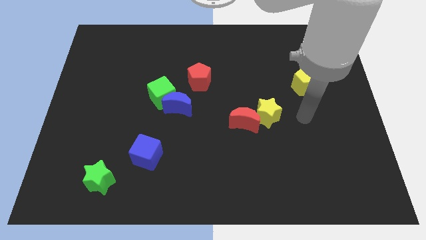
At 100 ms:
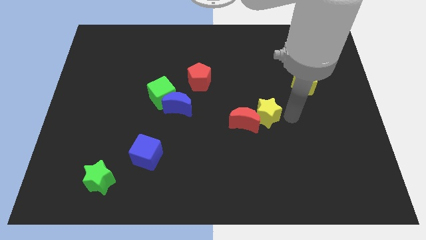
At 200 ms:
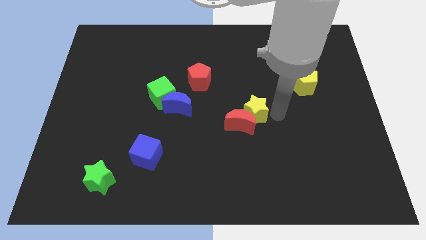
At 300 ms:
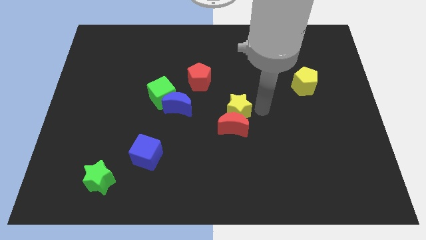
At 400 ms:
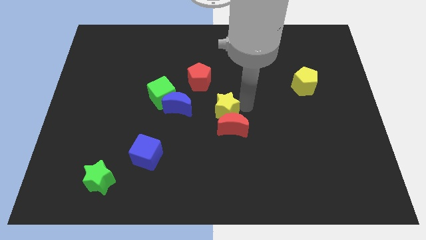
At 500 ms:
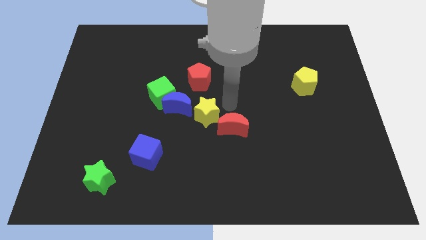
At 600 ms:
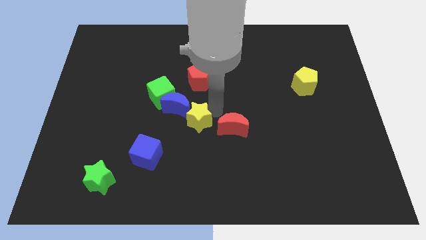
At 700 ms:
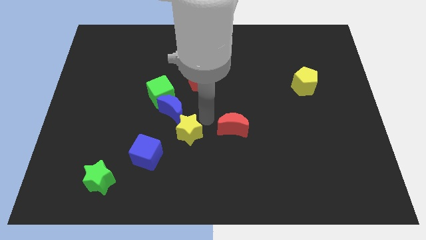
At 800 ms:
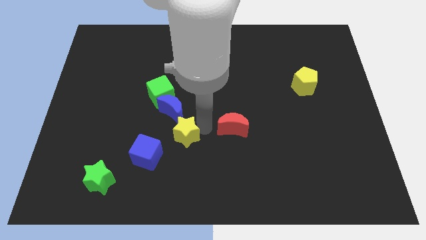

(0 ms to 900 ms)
separate the red moon from the yellow star

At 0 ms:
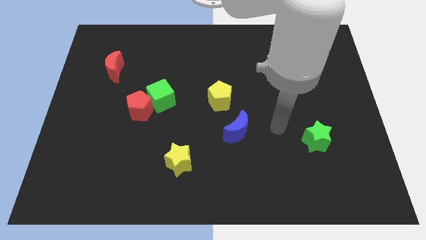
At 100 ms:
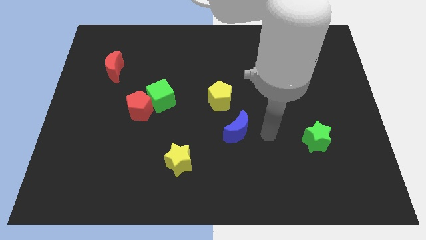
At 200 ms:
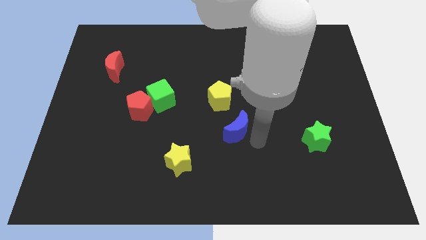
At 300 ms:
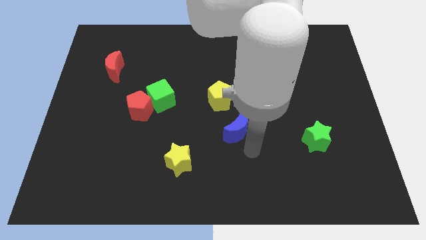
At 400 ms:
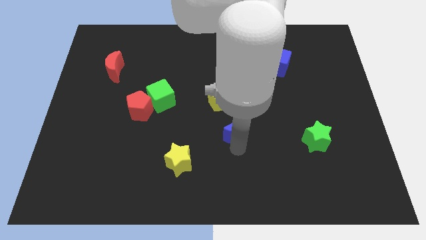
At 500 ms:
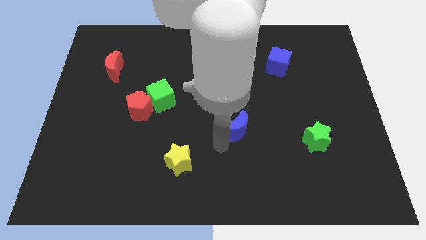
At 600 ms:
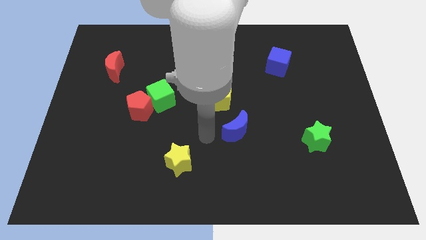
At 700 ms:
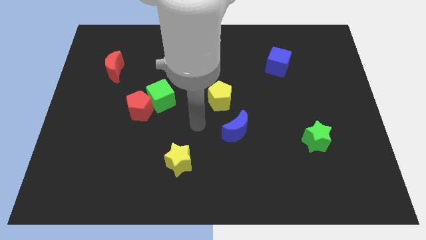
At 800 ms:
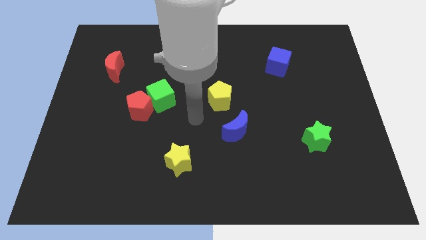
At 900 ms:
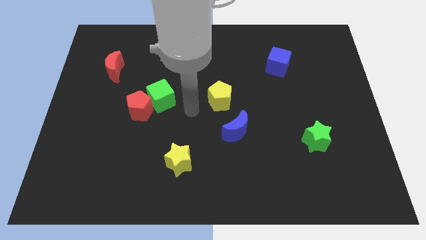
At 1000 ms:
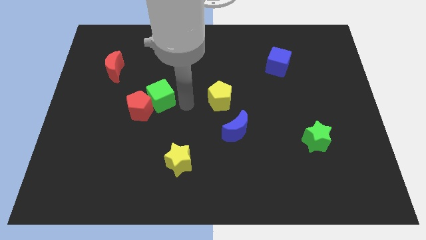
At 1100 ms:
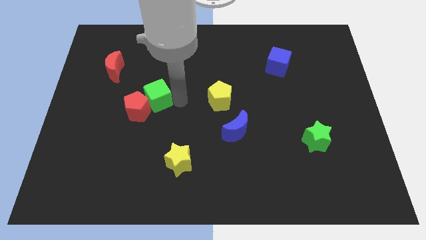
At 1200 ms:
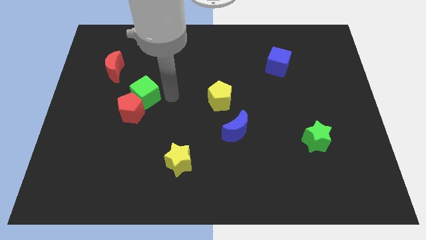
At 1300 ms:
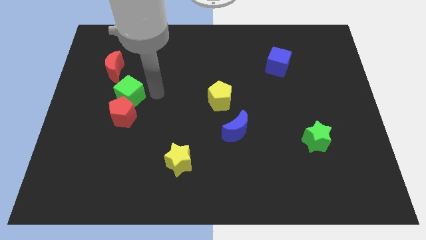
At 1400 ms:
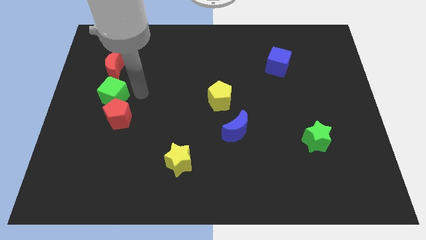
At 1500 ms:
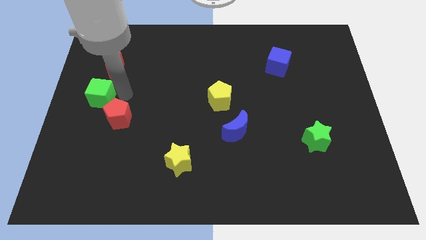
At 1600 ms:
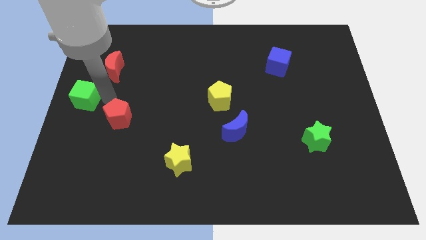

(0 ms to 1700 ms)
move the red pentagon away from the green cube

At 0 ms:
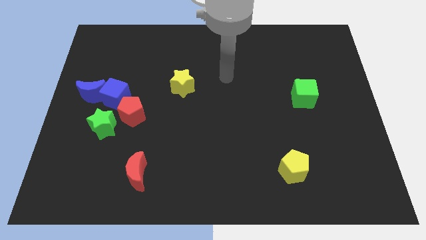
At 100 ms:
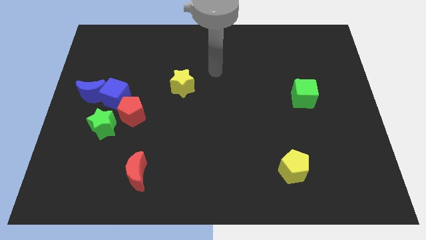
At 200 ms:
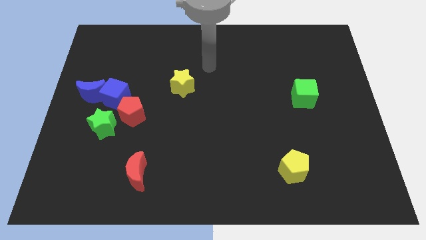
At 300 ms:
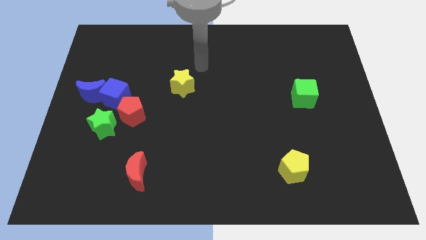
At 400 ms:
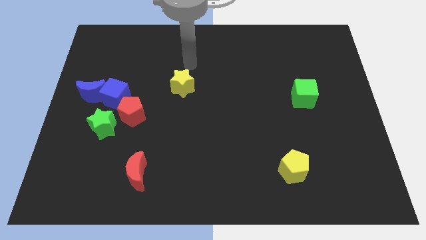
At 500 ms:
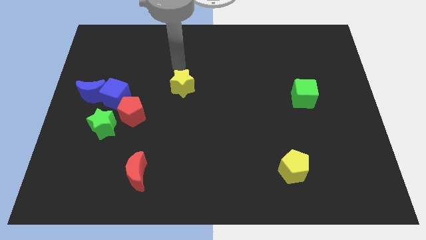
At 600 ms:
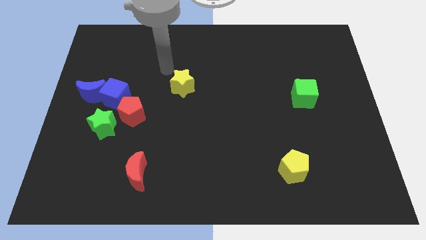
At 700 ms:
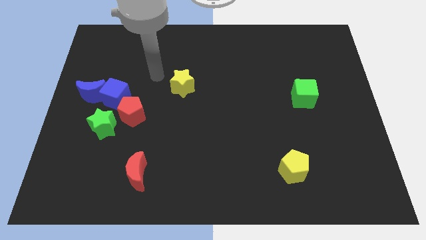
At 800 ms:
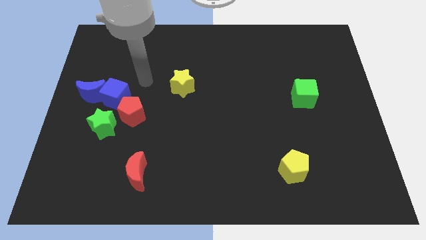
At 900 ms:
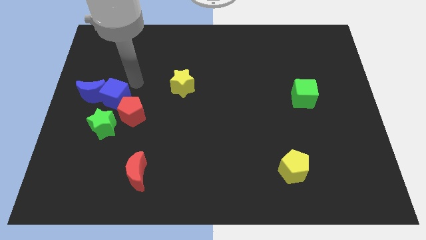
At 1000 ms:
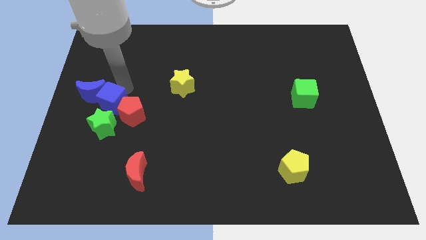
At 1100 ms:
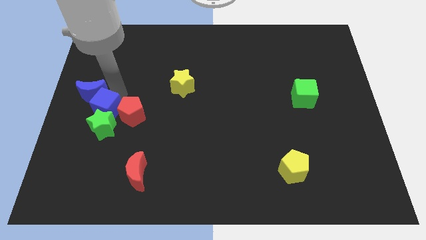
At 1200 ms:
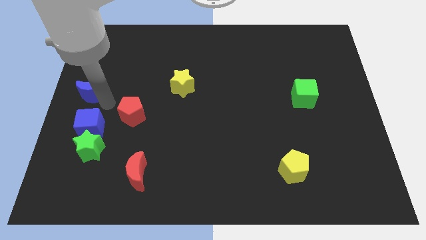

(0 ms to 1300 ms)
pull the red pentagon apart from the blue cube and green star

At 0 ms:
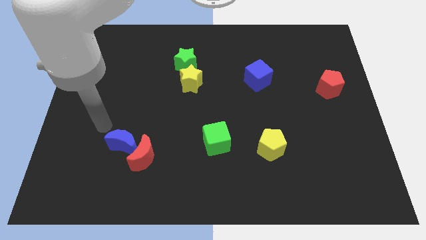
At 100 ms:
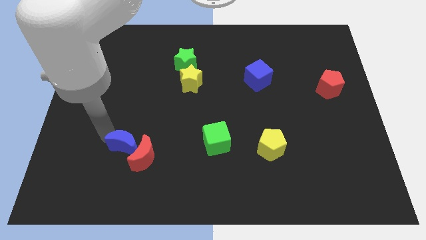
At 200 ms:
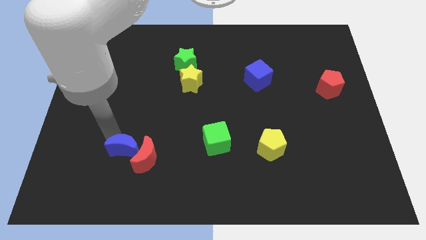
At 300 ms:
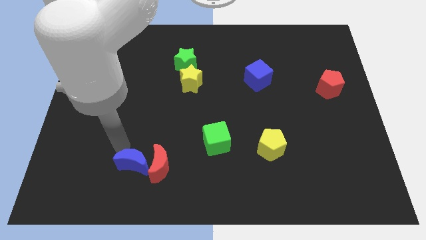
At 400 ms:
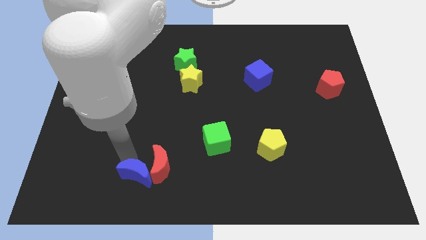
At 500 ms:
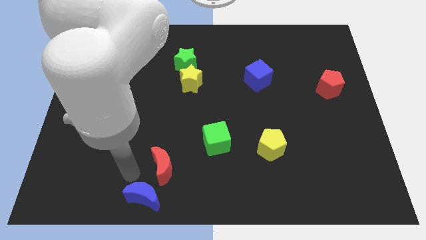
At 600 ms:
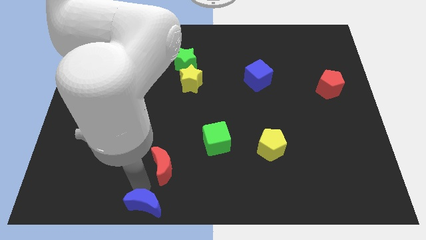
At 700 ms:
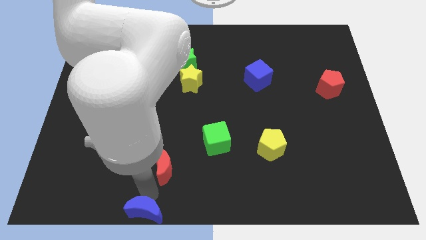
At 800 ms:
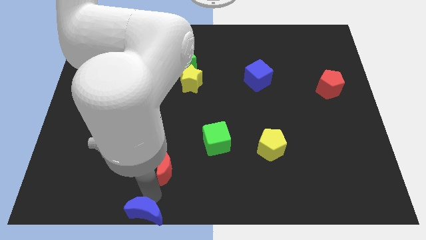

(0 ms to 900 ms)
separate the red moon from the blue moon

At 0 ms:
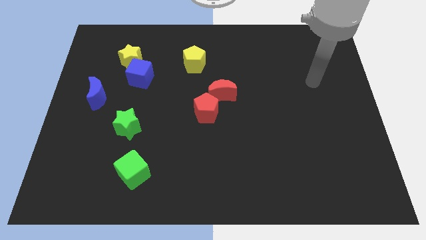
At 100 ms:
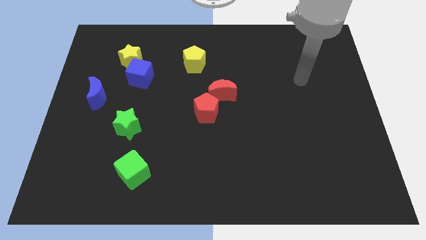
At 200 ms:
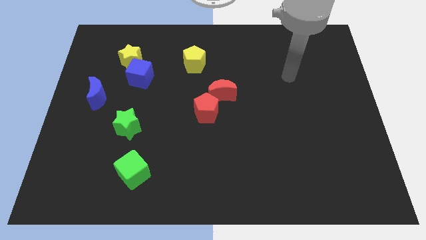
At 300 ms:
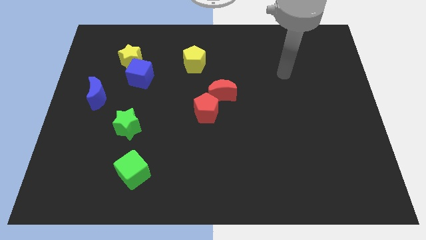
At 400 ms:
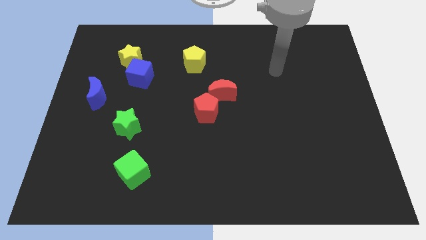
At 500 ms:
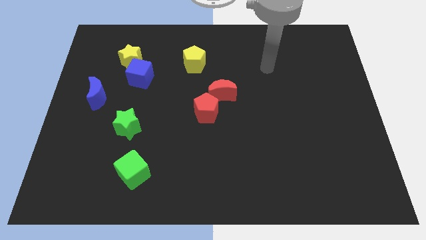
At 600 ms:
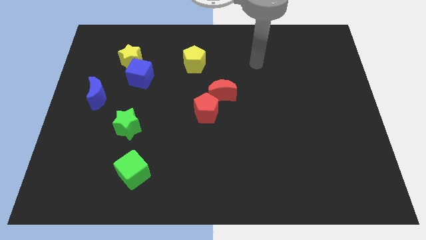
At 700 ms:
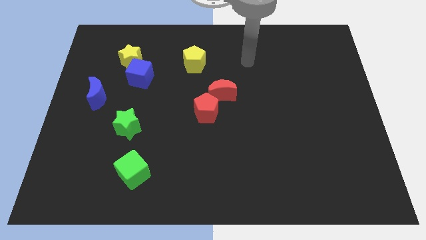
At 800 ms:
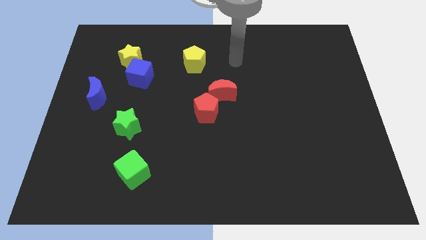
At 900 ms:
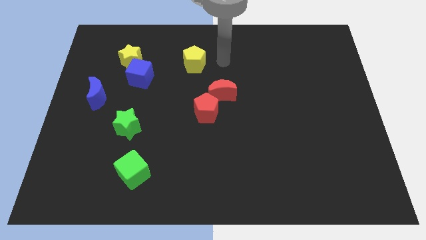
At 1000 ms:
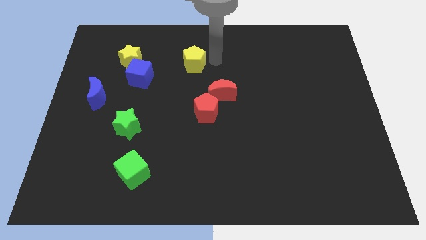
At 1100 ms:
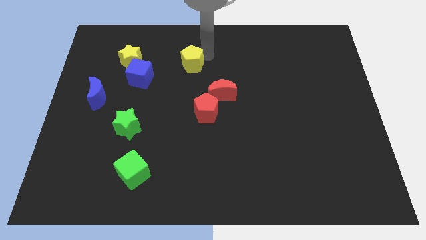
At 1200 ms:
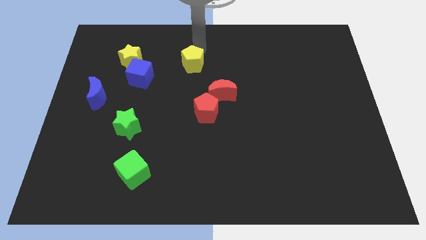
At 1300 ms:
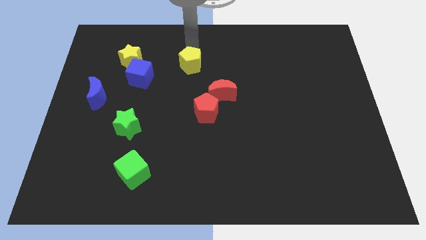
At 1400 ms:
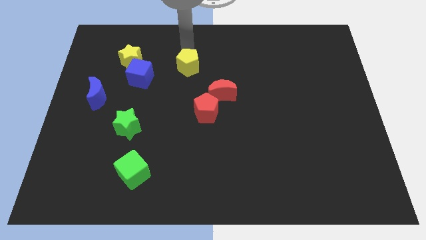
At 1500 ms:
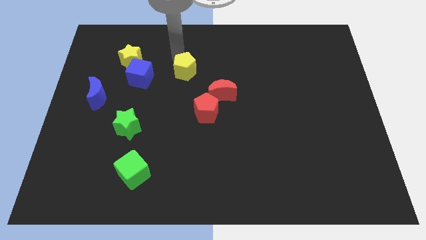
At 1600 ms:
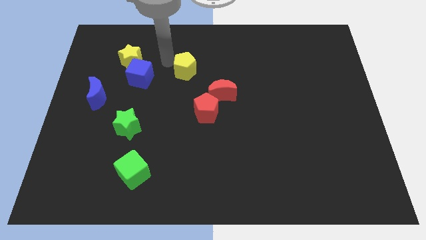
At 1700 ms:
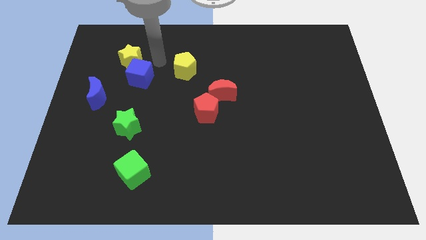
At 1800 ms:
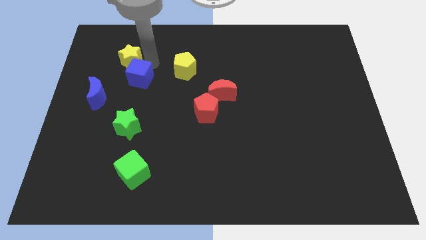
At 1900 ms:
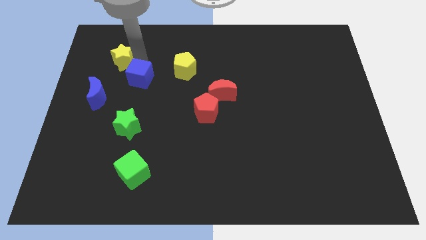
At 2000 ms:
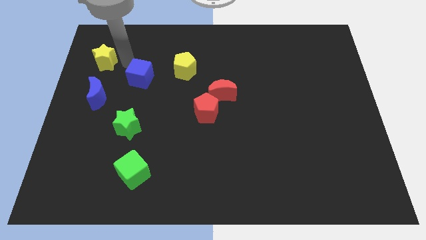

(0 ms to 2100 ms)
move the blue cube away from the yellow star

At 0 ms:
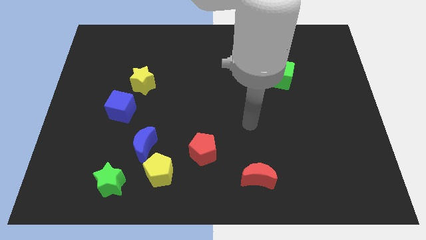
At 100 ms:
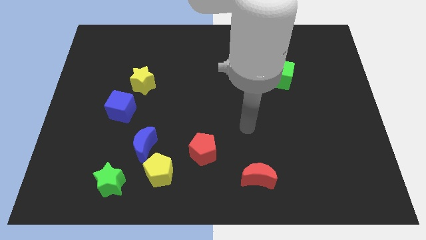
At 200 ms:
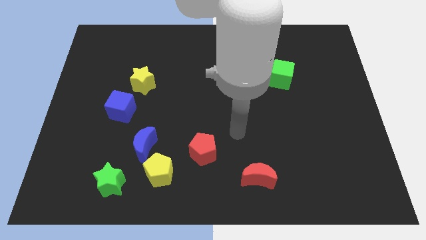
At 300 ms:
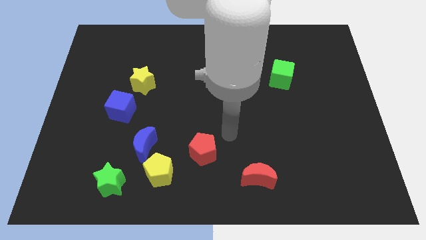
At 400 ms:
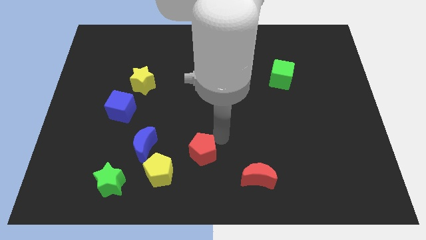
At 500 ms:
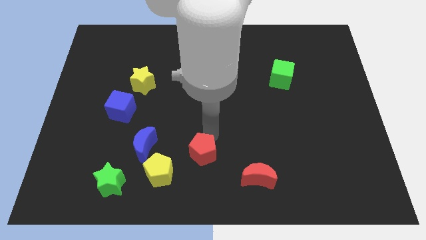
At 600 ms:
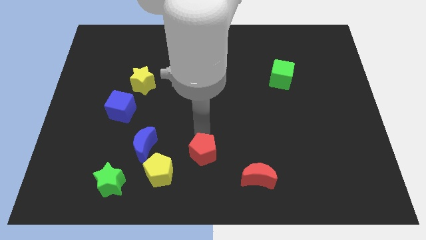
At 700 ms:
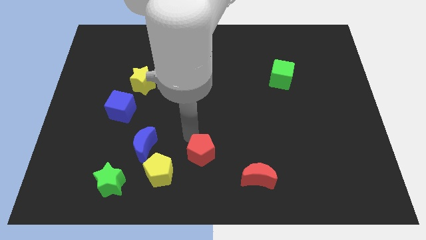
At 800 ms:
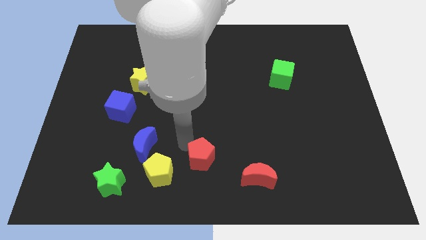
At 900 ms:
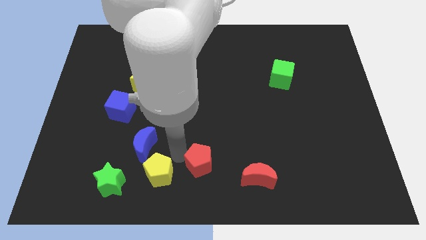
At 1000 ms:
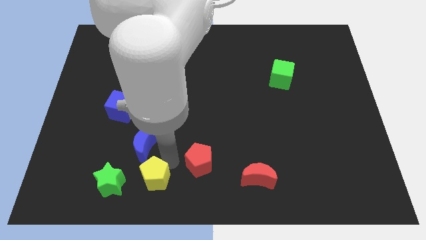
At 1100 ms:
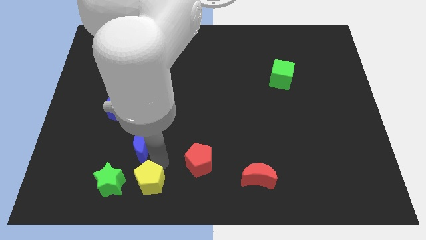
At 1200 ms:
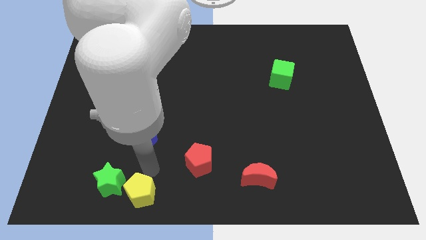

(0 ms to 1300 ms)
pull the blue moon apart from the yellow pentagon and green star

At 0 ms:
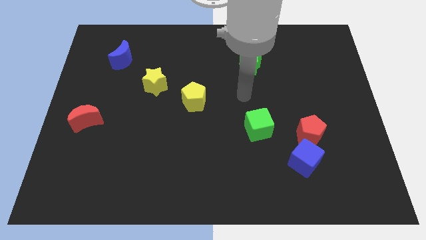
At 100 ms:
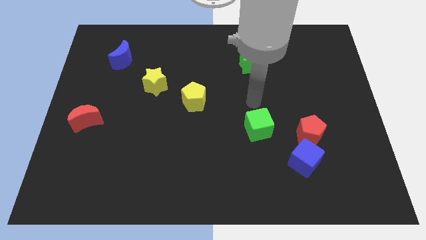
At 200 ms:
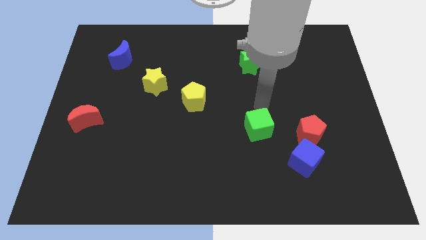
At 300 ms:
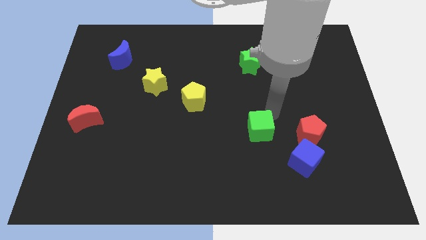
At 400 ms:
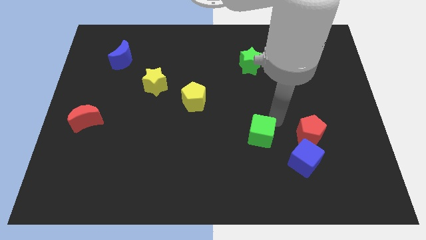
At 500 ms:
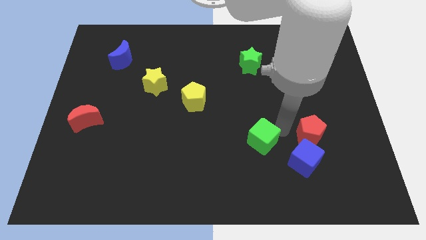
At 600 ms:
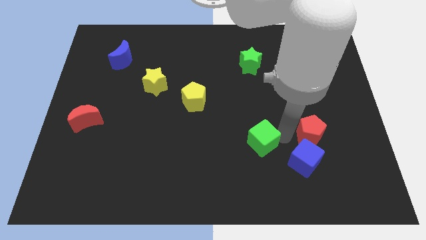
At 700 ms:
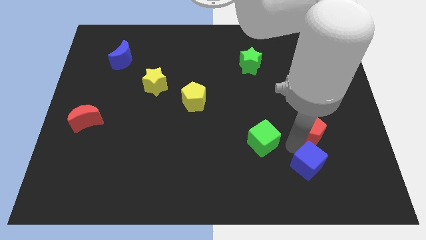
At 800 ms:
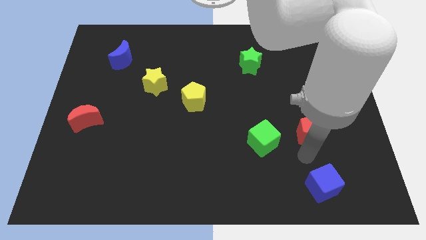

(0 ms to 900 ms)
separate the red pentagon from the blue cube

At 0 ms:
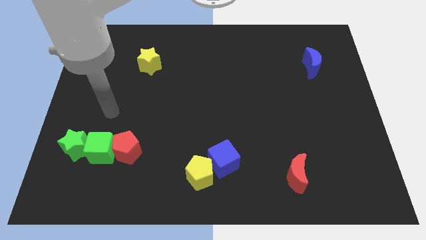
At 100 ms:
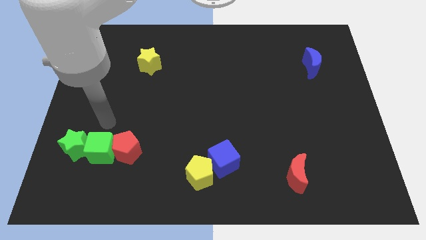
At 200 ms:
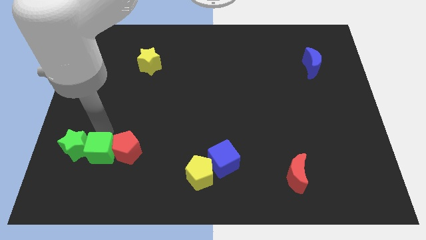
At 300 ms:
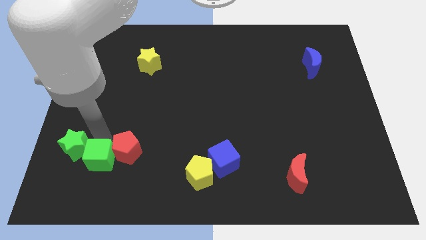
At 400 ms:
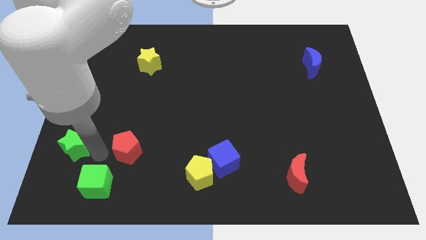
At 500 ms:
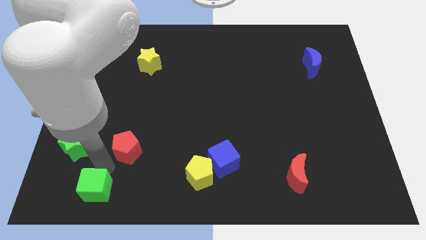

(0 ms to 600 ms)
separate the red pentagon from the green cube
